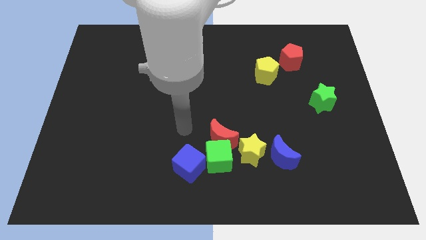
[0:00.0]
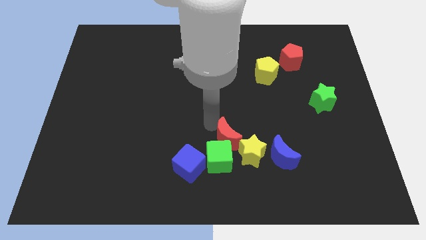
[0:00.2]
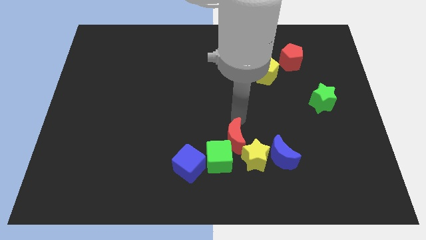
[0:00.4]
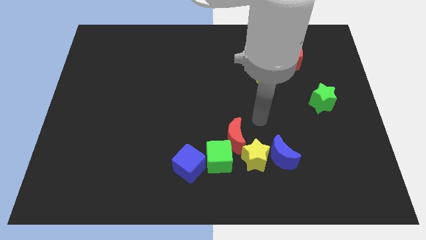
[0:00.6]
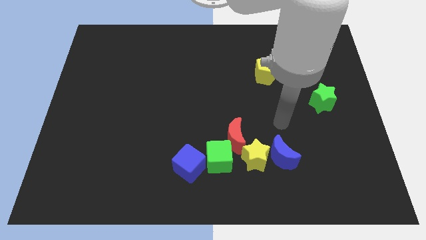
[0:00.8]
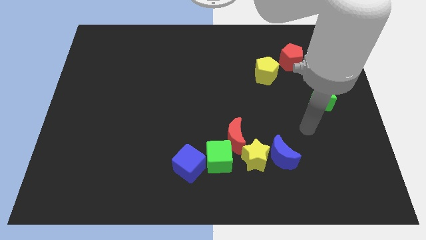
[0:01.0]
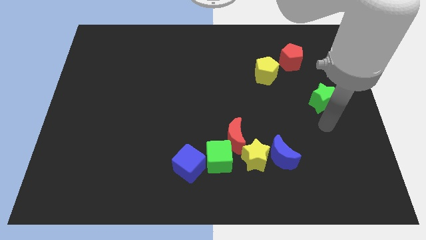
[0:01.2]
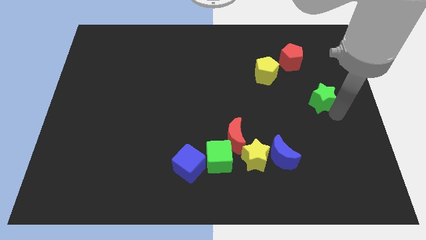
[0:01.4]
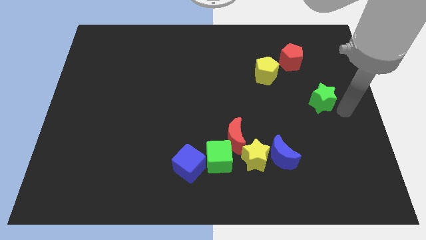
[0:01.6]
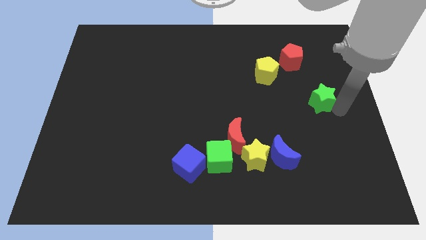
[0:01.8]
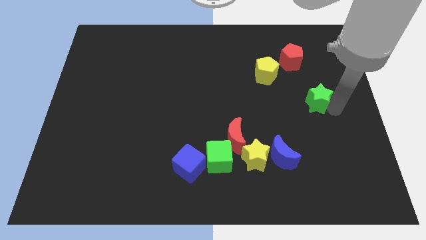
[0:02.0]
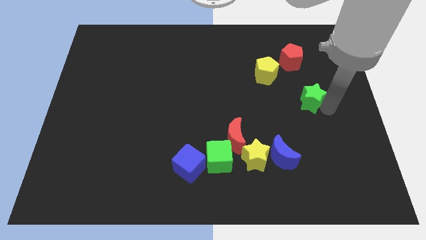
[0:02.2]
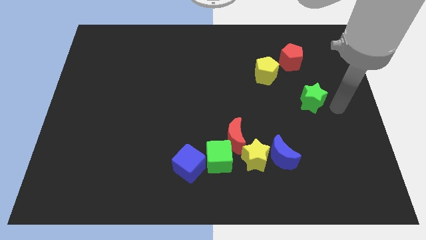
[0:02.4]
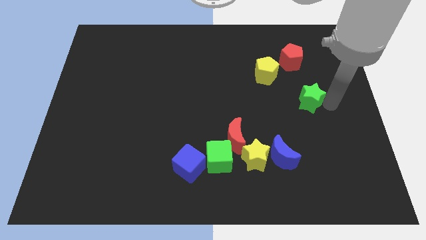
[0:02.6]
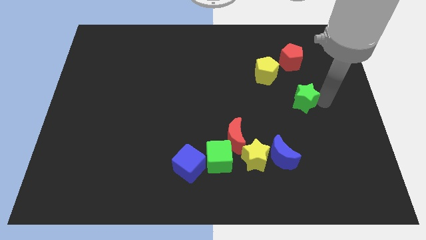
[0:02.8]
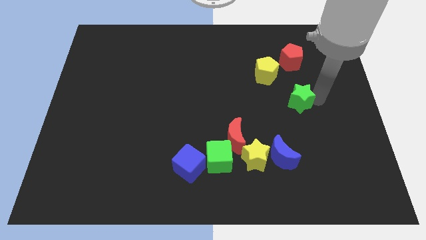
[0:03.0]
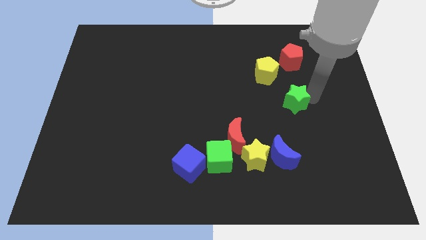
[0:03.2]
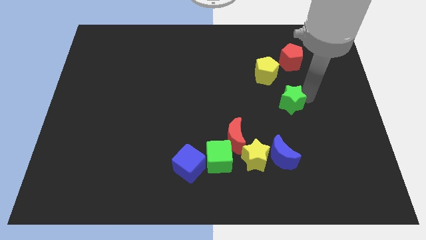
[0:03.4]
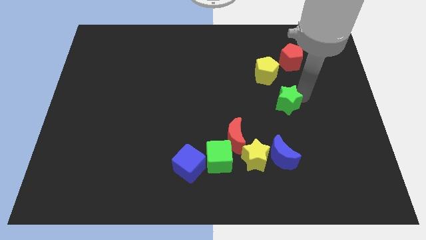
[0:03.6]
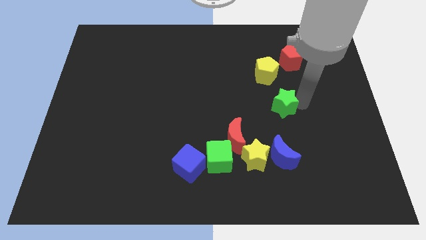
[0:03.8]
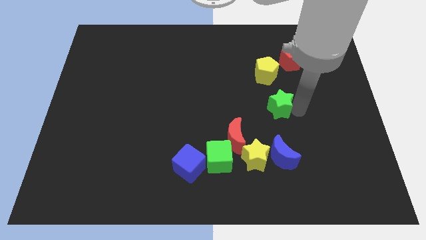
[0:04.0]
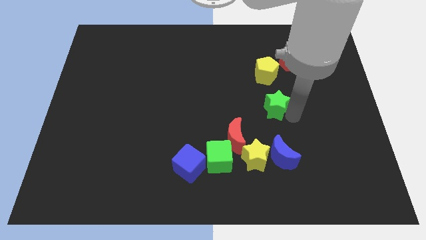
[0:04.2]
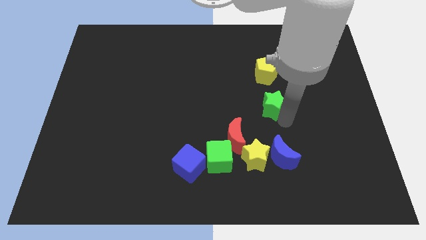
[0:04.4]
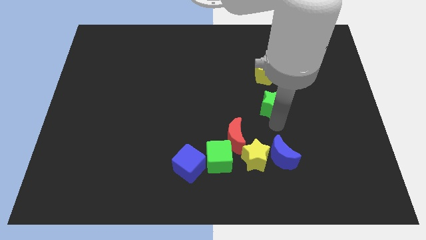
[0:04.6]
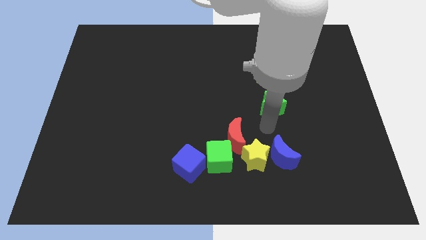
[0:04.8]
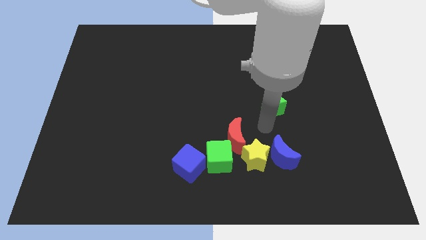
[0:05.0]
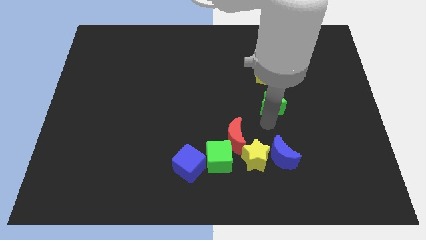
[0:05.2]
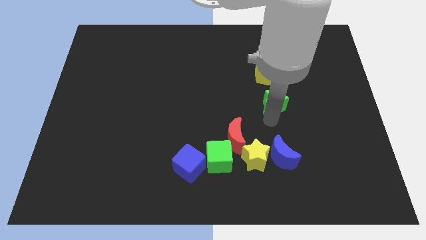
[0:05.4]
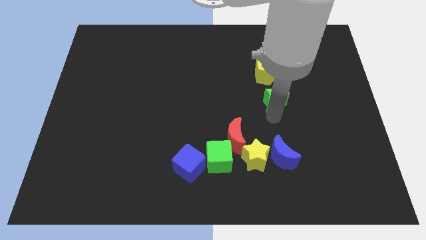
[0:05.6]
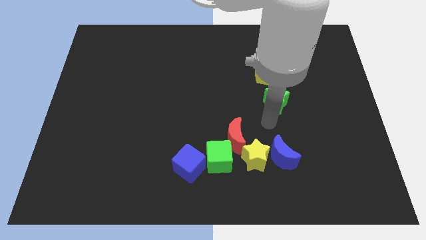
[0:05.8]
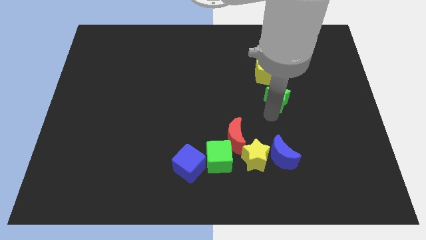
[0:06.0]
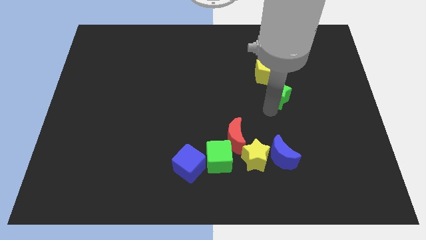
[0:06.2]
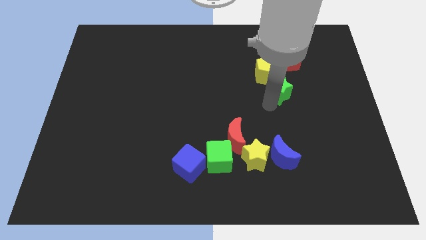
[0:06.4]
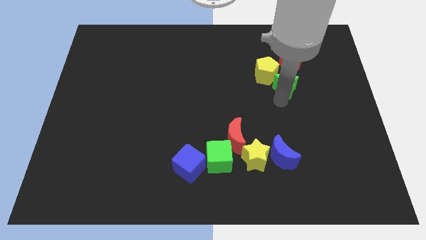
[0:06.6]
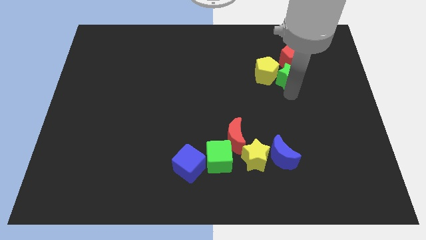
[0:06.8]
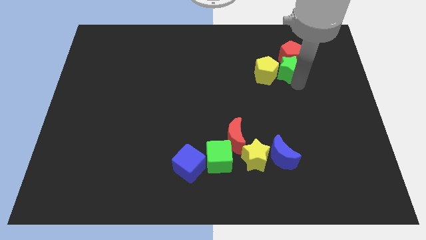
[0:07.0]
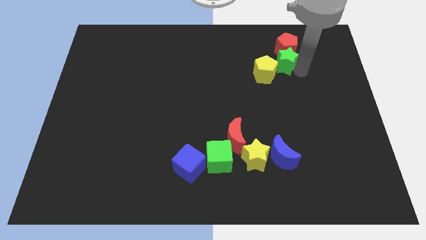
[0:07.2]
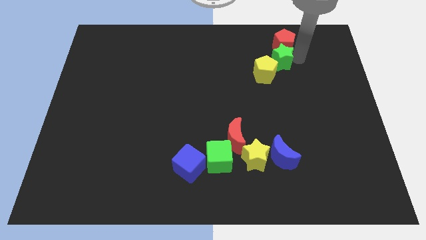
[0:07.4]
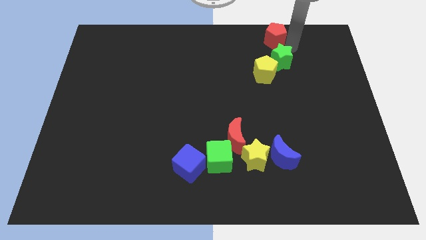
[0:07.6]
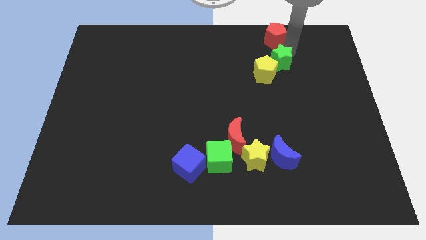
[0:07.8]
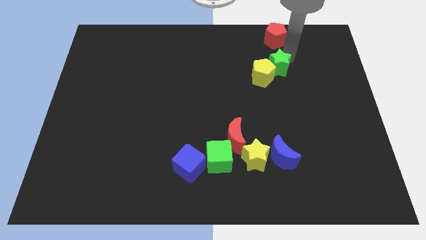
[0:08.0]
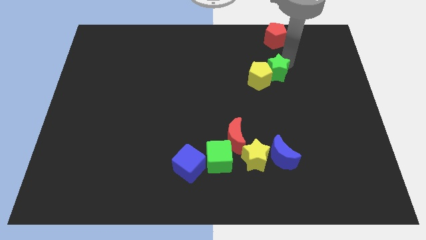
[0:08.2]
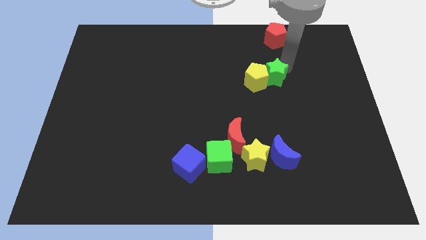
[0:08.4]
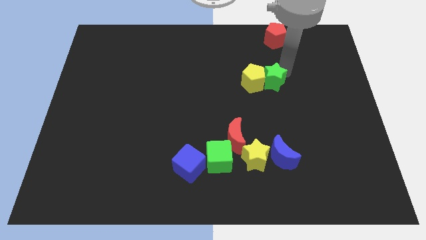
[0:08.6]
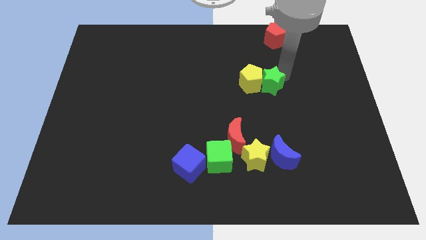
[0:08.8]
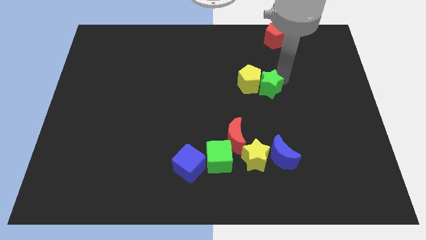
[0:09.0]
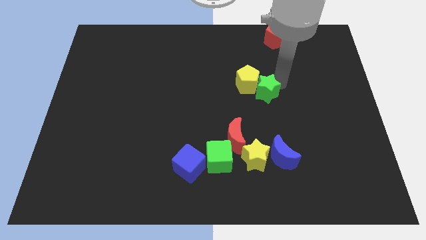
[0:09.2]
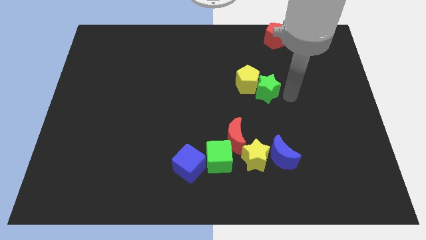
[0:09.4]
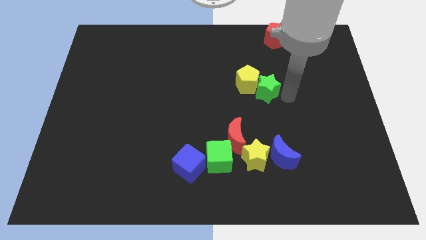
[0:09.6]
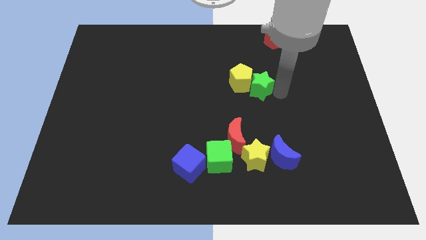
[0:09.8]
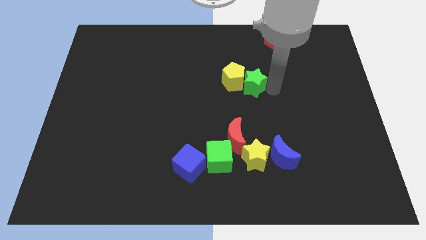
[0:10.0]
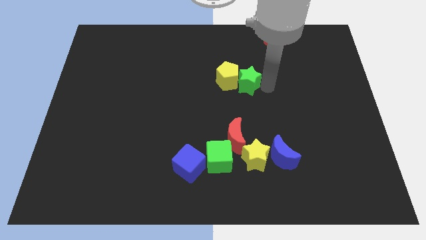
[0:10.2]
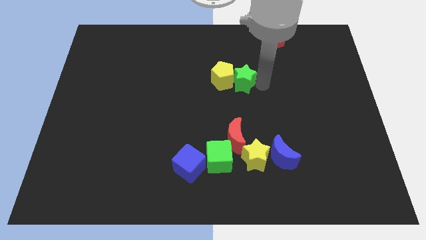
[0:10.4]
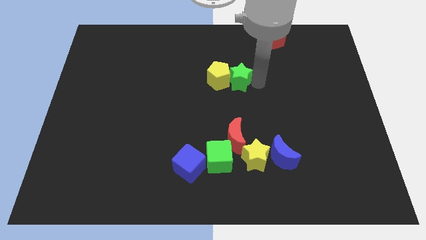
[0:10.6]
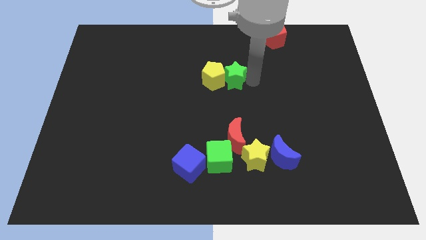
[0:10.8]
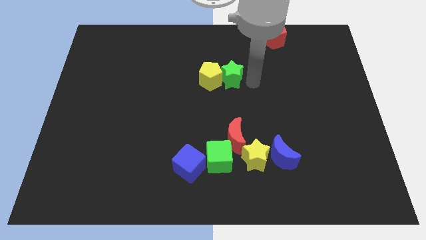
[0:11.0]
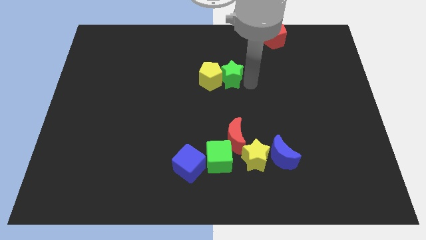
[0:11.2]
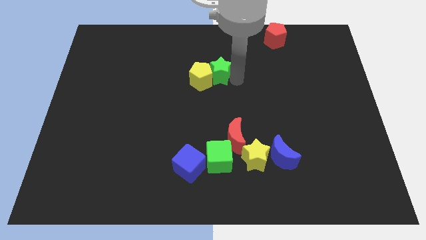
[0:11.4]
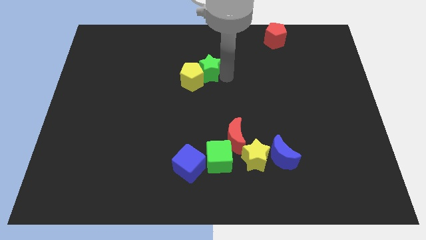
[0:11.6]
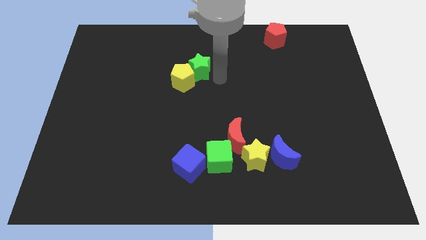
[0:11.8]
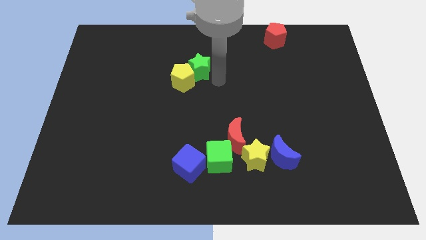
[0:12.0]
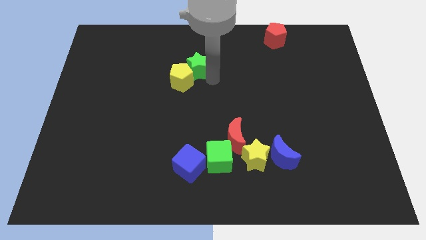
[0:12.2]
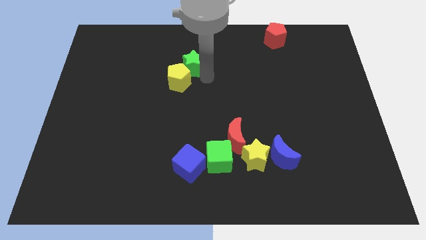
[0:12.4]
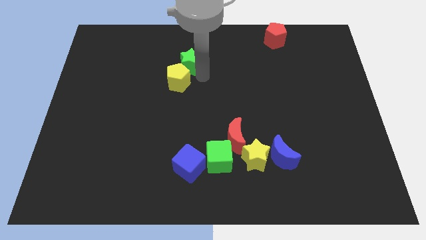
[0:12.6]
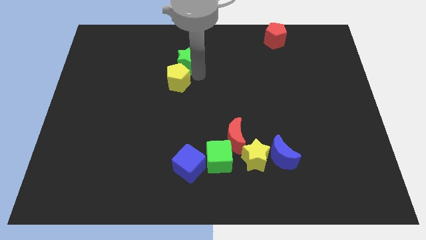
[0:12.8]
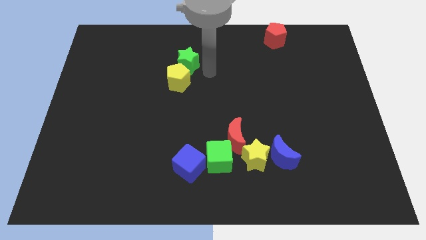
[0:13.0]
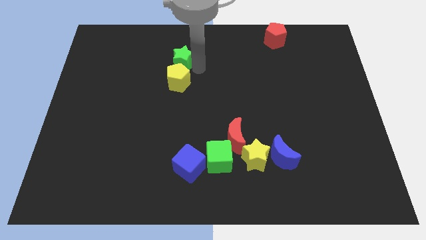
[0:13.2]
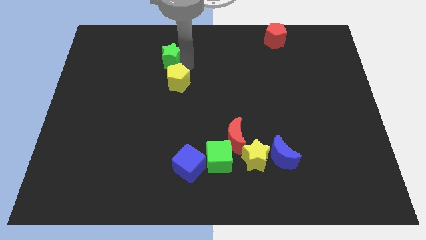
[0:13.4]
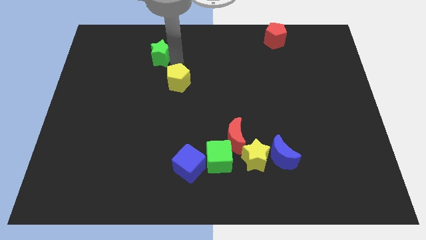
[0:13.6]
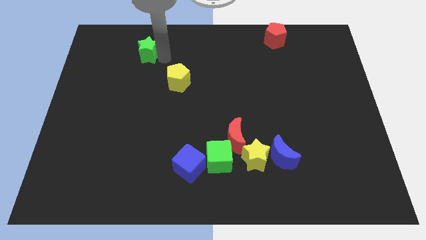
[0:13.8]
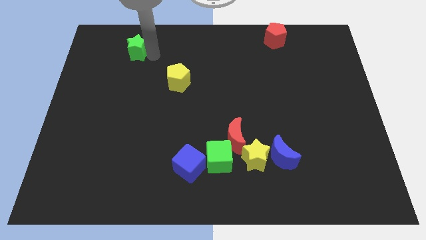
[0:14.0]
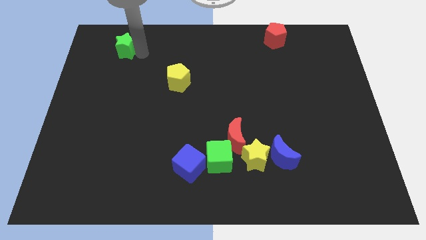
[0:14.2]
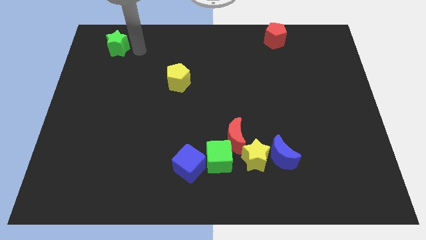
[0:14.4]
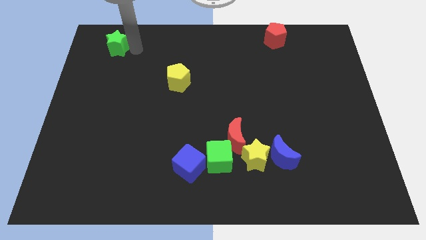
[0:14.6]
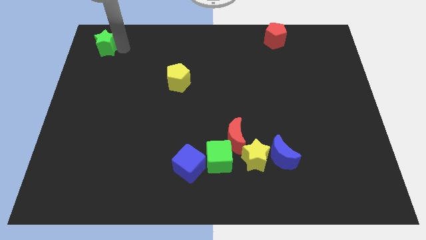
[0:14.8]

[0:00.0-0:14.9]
move the green star to the upper left corner
